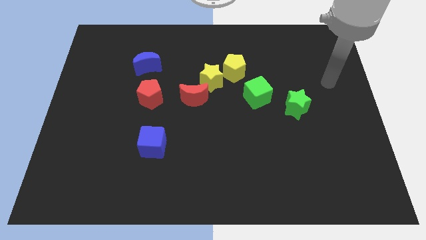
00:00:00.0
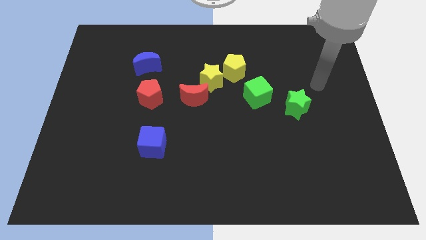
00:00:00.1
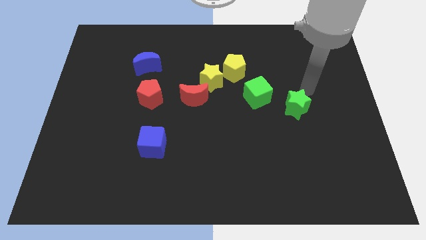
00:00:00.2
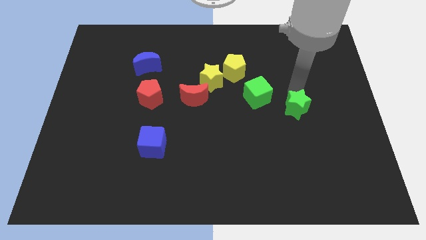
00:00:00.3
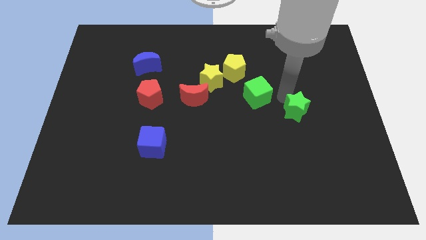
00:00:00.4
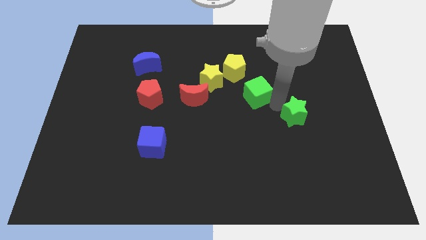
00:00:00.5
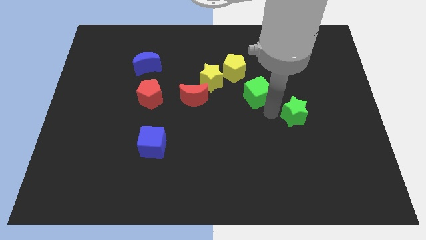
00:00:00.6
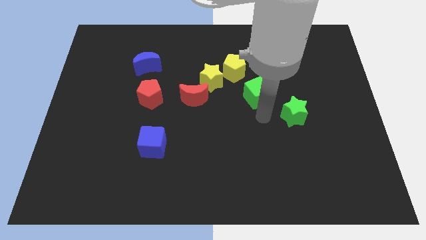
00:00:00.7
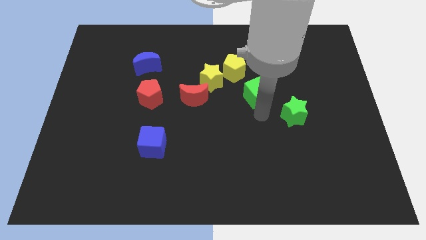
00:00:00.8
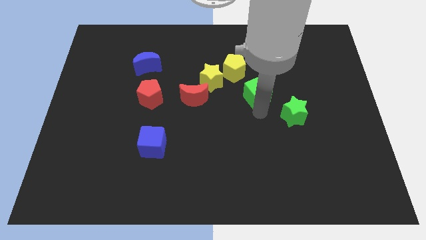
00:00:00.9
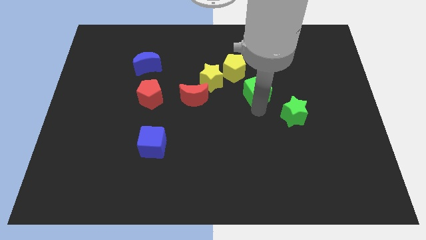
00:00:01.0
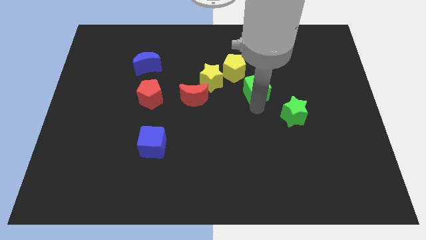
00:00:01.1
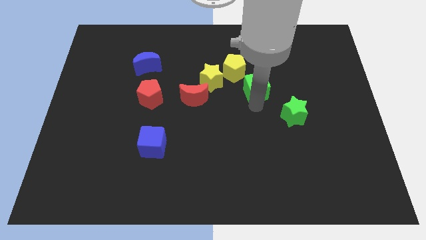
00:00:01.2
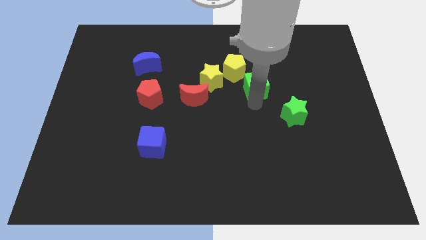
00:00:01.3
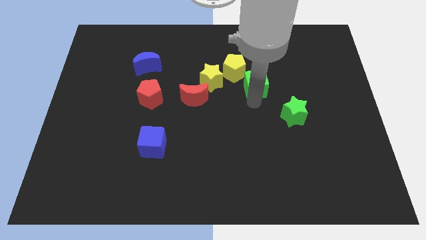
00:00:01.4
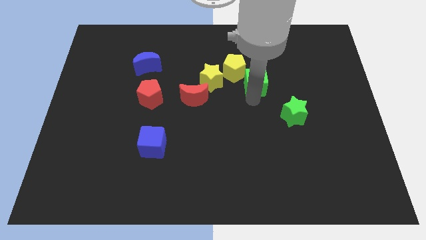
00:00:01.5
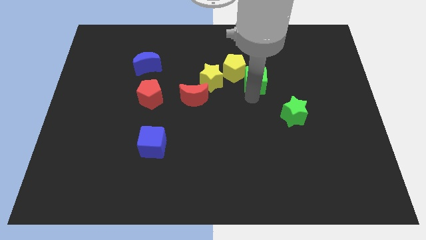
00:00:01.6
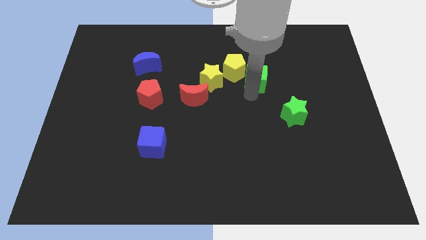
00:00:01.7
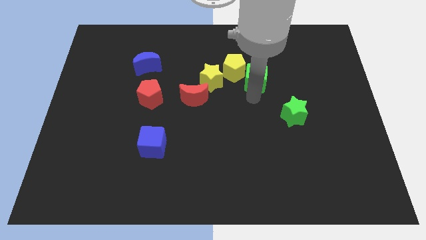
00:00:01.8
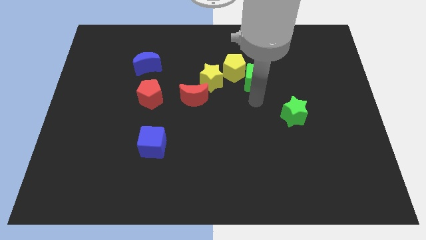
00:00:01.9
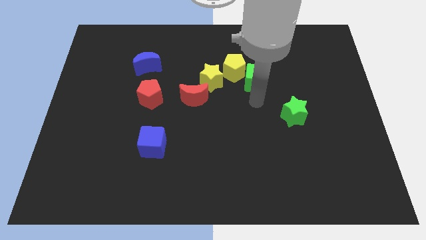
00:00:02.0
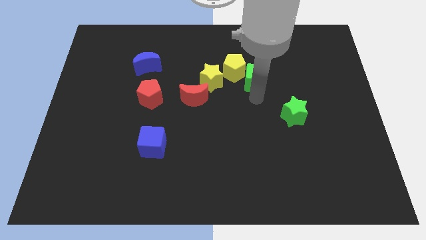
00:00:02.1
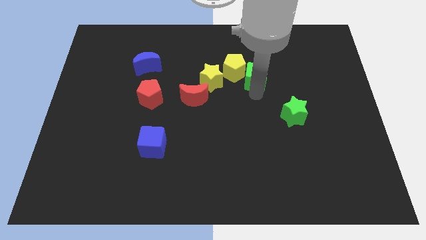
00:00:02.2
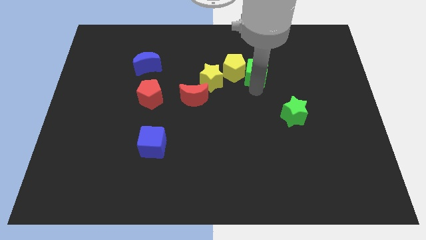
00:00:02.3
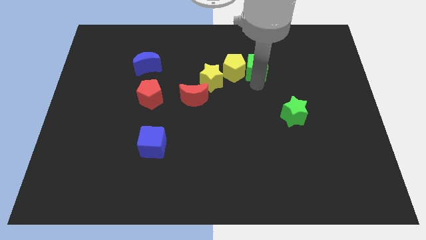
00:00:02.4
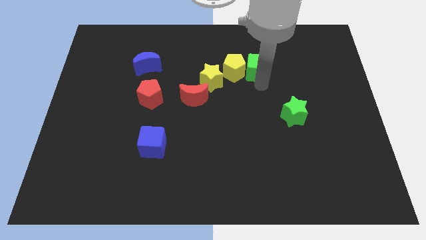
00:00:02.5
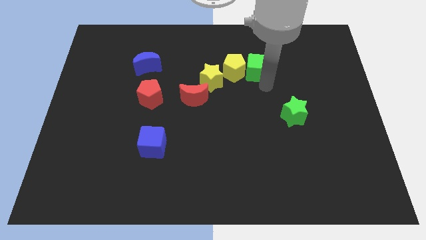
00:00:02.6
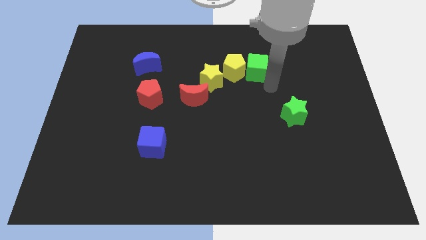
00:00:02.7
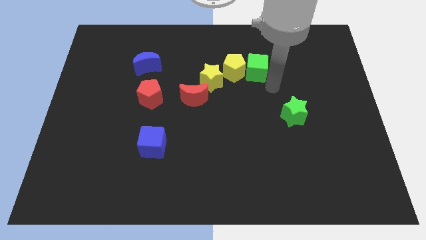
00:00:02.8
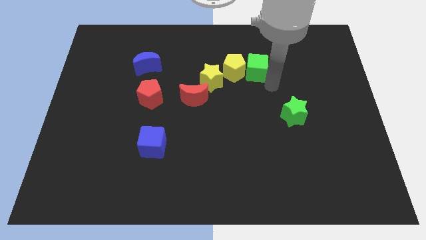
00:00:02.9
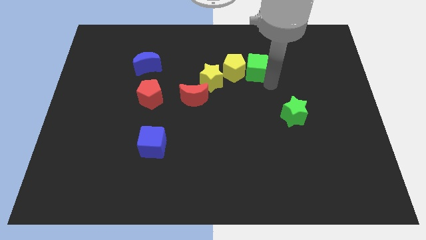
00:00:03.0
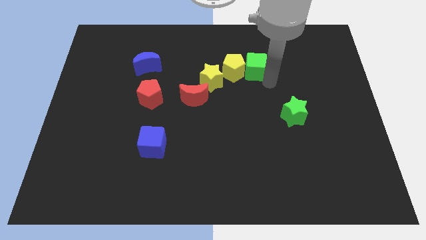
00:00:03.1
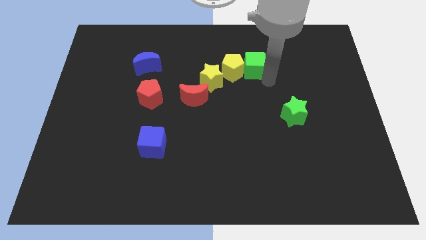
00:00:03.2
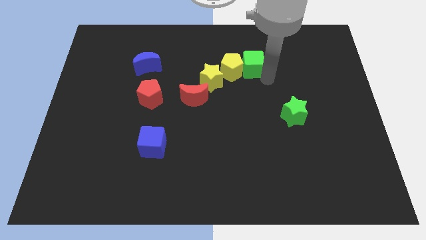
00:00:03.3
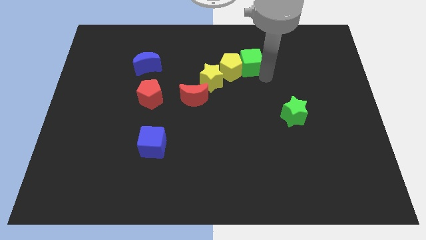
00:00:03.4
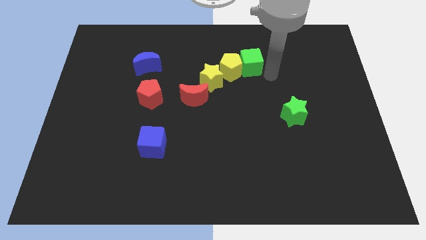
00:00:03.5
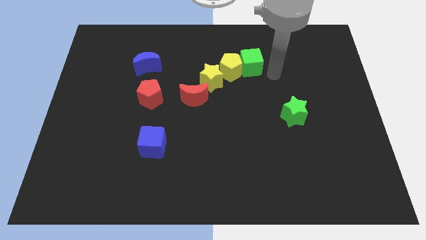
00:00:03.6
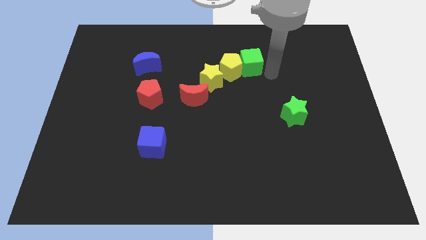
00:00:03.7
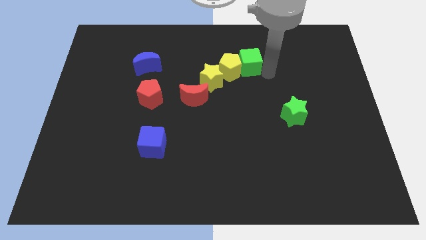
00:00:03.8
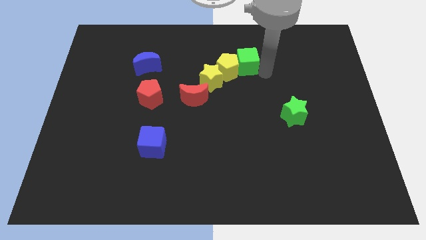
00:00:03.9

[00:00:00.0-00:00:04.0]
slightly move the green cube upwards and to the left

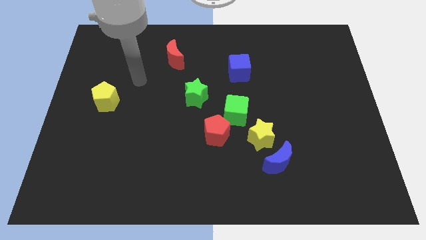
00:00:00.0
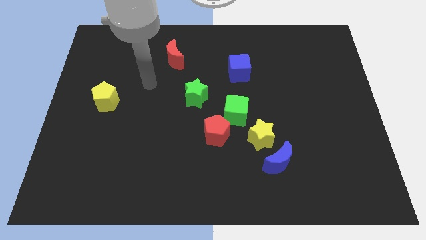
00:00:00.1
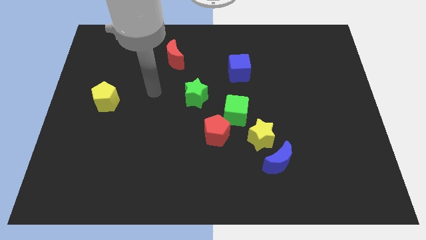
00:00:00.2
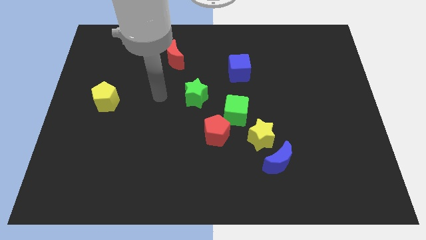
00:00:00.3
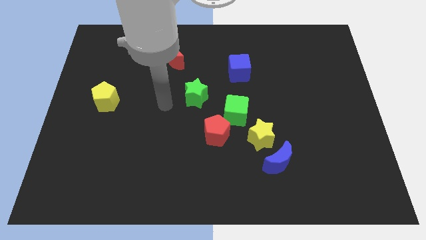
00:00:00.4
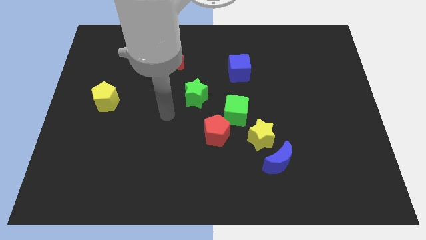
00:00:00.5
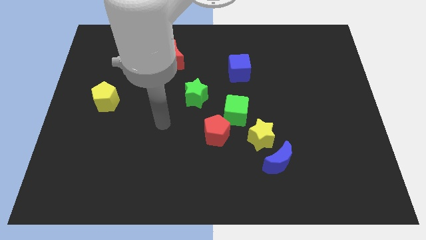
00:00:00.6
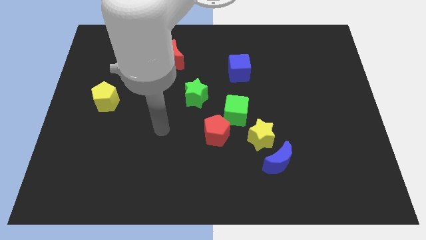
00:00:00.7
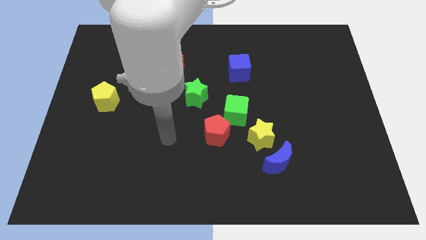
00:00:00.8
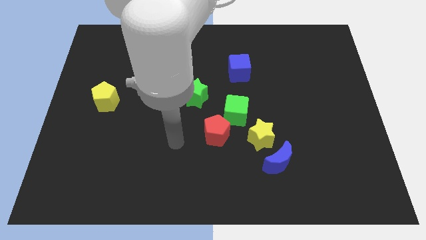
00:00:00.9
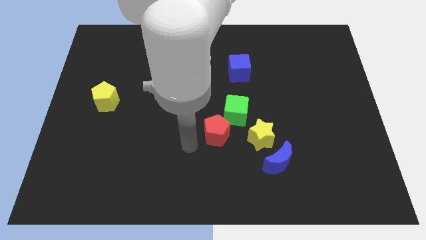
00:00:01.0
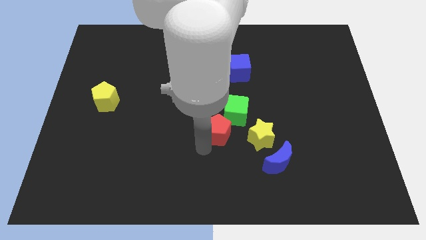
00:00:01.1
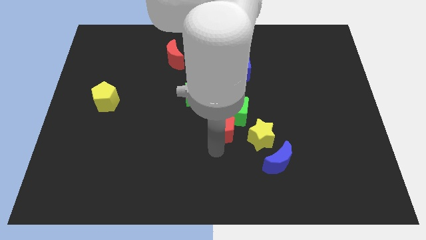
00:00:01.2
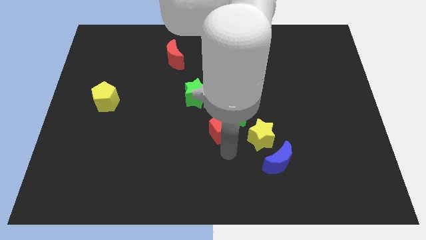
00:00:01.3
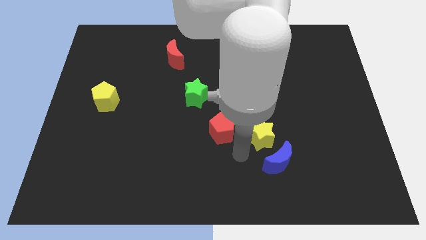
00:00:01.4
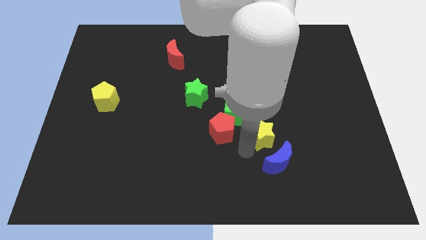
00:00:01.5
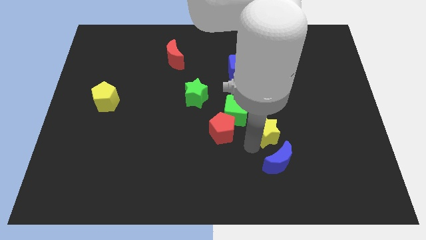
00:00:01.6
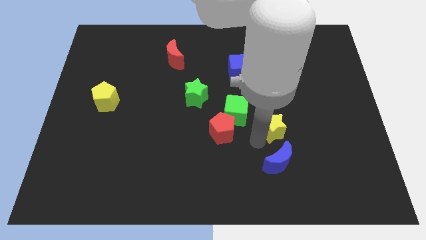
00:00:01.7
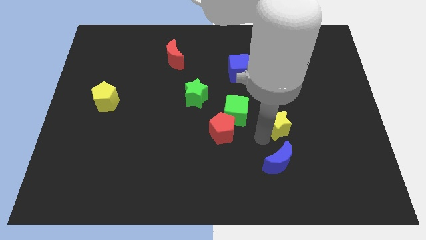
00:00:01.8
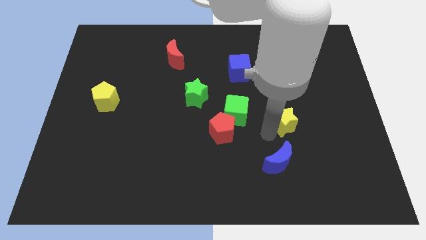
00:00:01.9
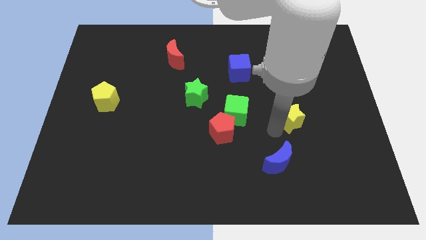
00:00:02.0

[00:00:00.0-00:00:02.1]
move the yellow star somewhat up and to the right

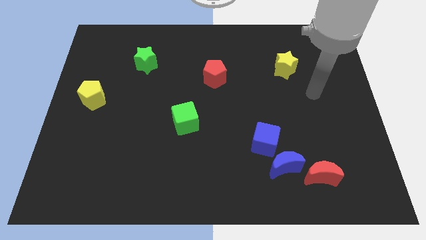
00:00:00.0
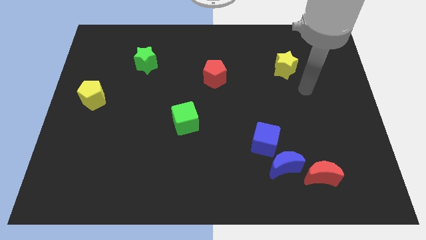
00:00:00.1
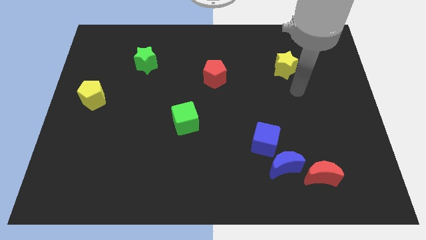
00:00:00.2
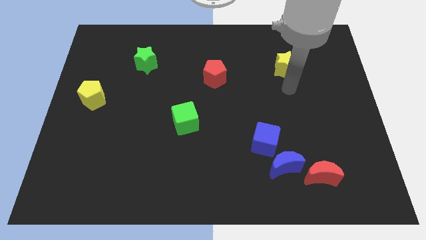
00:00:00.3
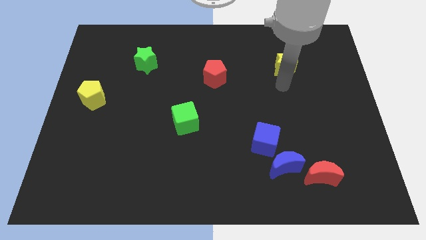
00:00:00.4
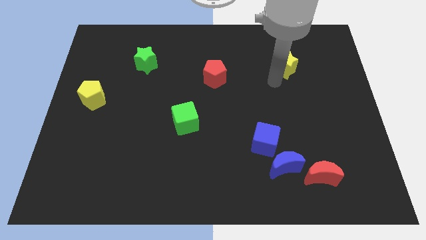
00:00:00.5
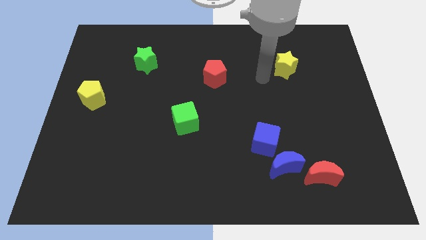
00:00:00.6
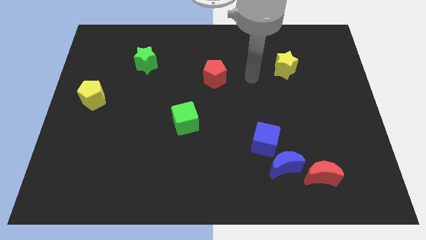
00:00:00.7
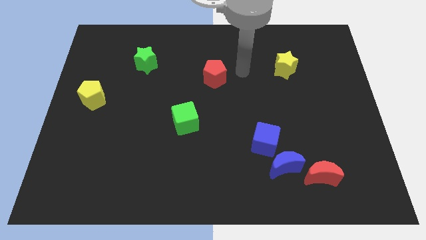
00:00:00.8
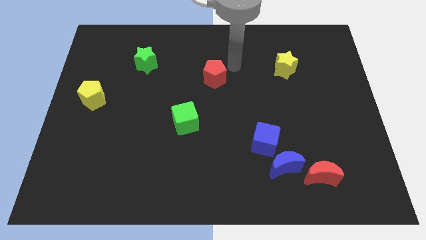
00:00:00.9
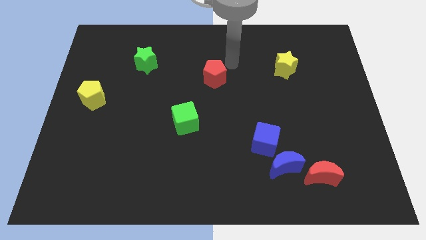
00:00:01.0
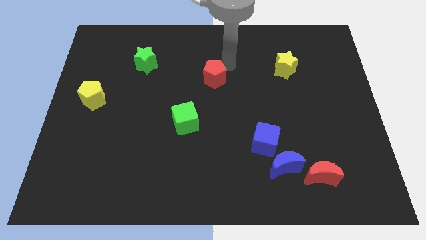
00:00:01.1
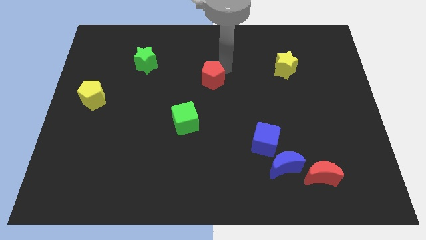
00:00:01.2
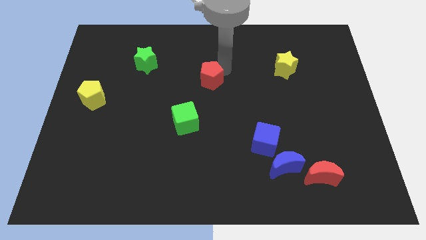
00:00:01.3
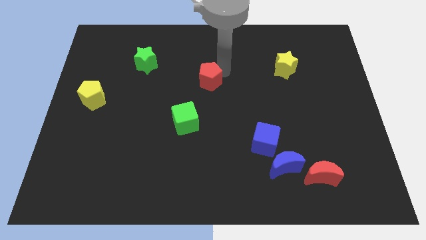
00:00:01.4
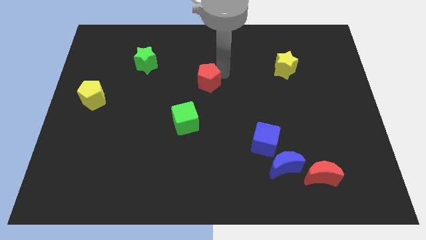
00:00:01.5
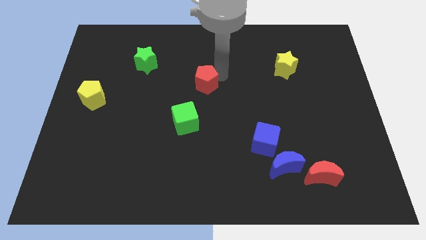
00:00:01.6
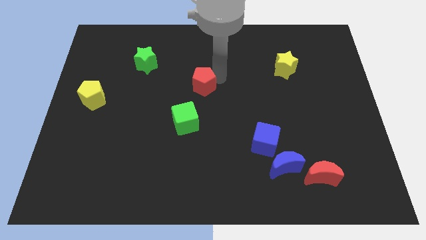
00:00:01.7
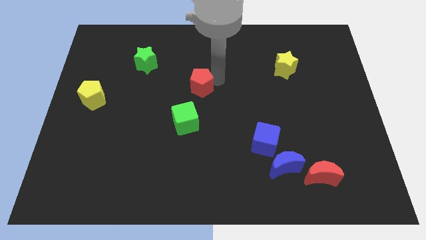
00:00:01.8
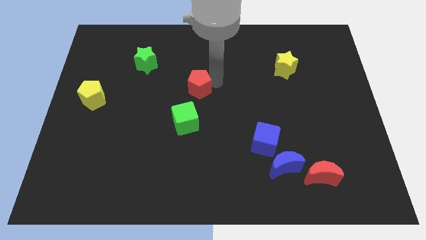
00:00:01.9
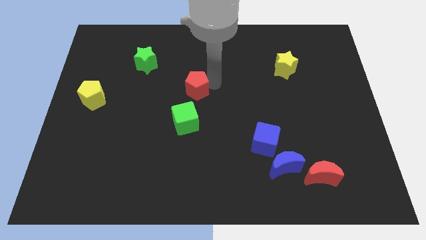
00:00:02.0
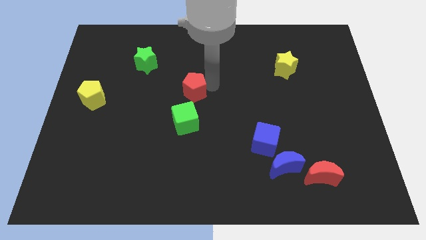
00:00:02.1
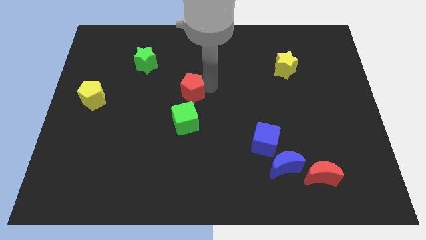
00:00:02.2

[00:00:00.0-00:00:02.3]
slightly push the red pentagon diagonally downwards and left
